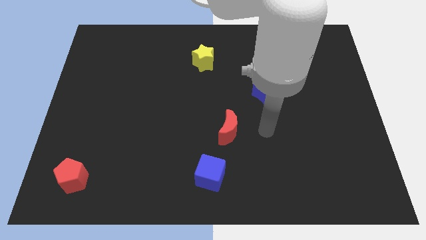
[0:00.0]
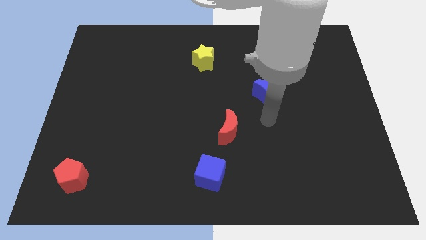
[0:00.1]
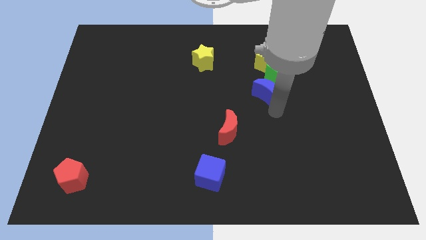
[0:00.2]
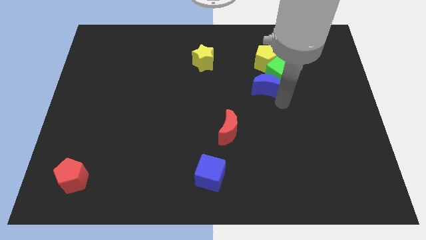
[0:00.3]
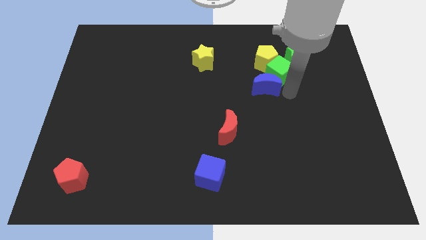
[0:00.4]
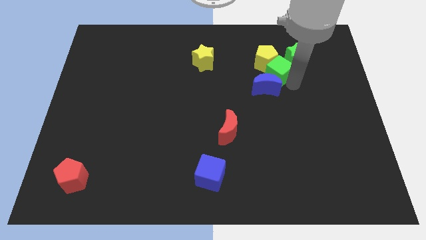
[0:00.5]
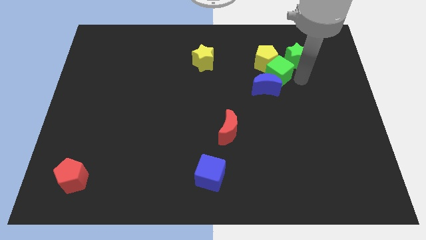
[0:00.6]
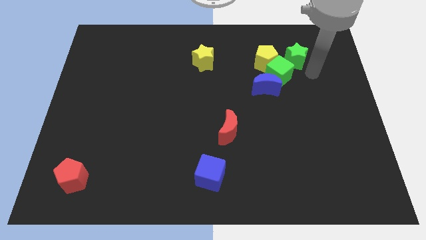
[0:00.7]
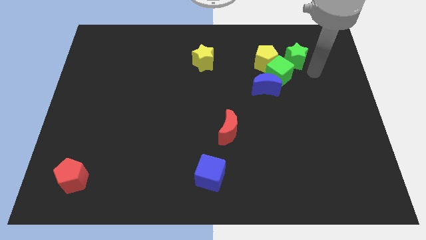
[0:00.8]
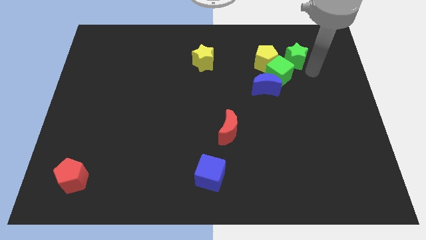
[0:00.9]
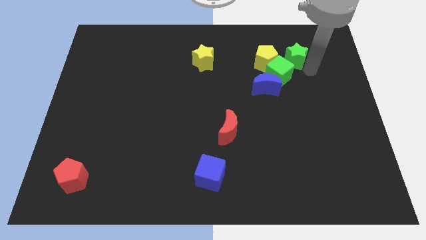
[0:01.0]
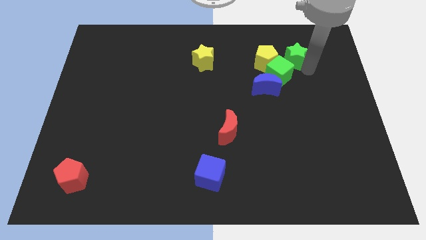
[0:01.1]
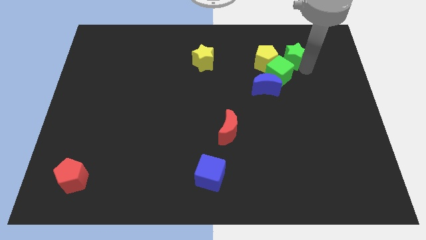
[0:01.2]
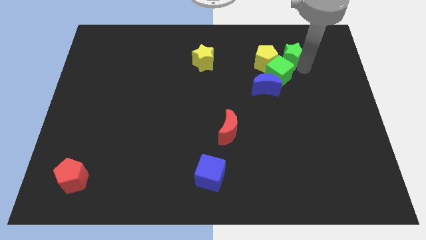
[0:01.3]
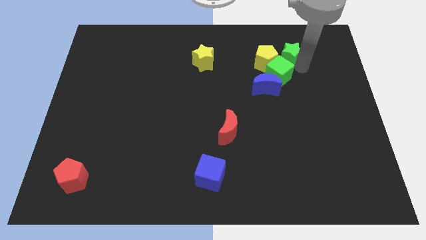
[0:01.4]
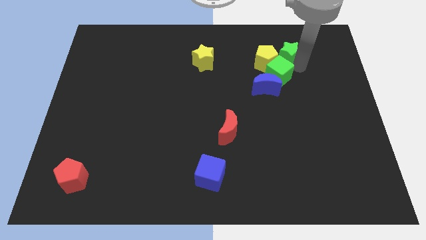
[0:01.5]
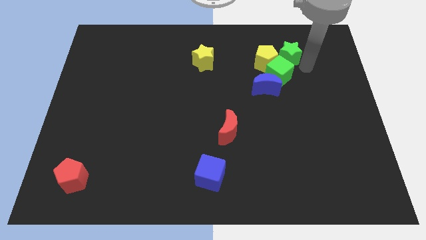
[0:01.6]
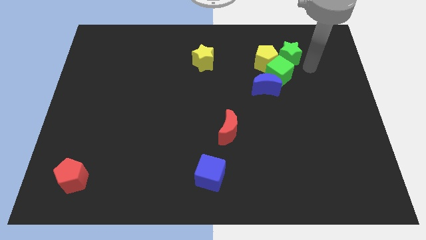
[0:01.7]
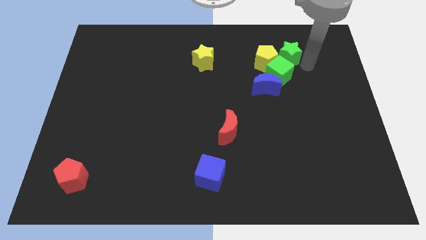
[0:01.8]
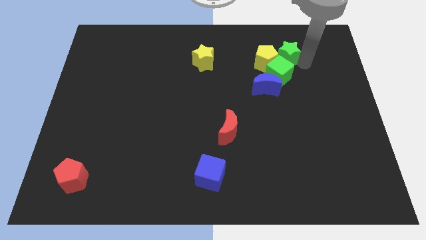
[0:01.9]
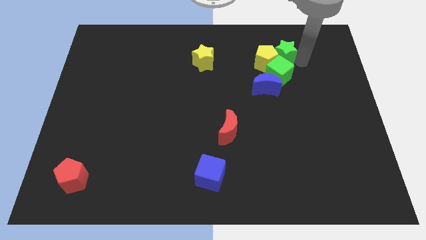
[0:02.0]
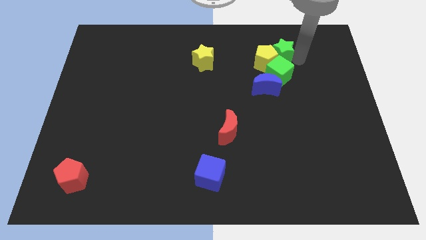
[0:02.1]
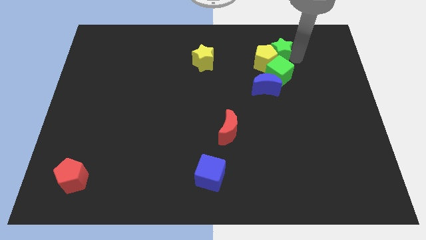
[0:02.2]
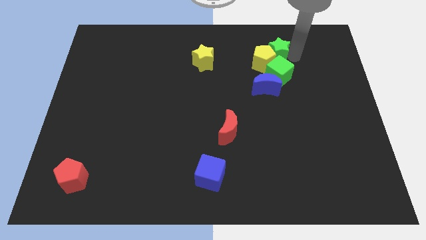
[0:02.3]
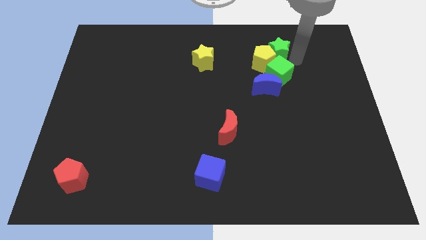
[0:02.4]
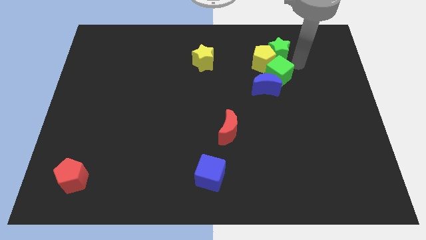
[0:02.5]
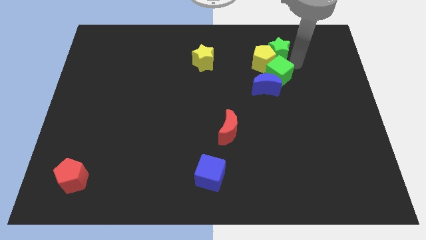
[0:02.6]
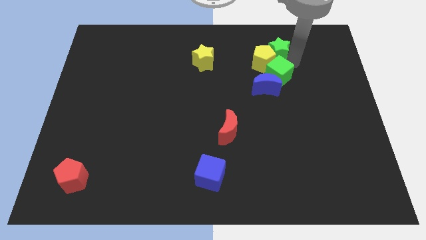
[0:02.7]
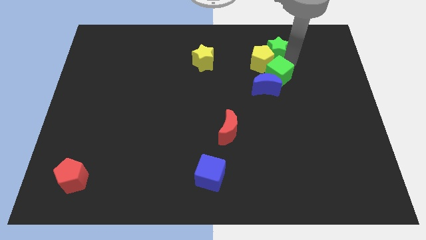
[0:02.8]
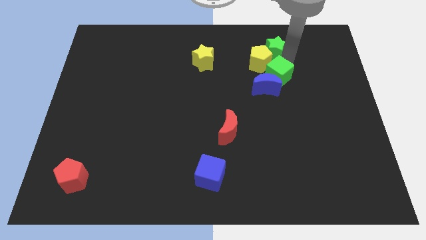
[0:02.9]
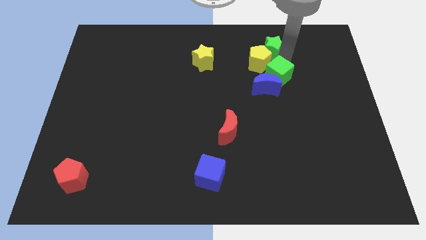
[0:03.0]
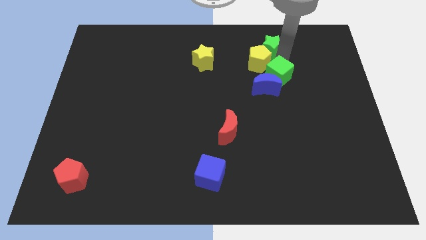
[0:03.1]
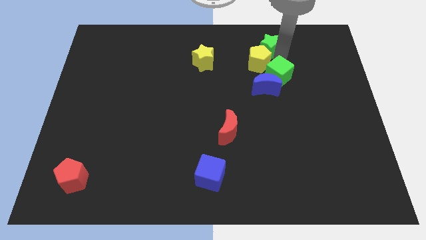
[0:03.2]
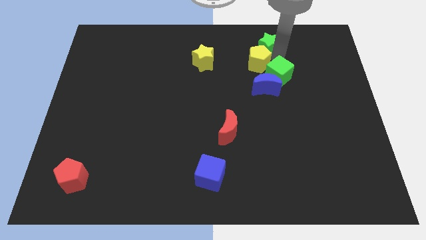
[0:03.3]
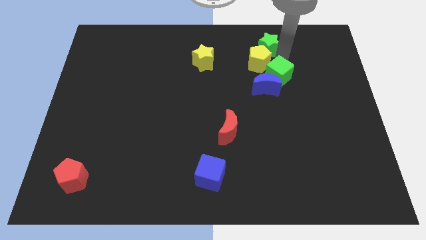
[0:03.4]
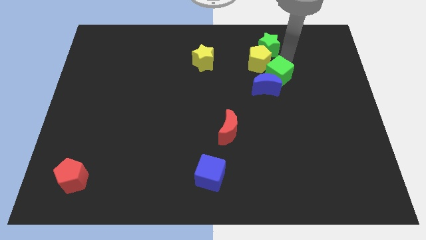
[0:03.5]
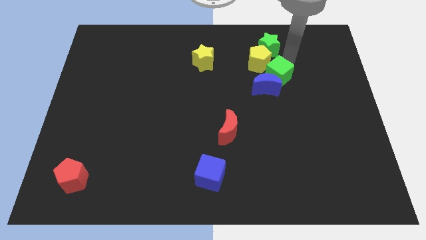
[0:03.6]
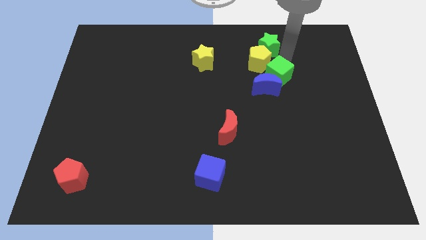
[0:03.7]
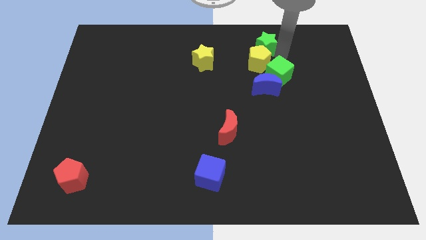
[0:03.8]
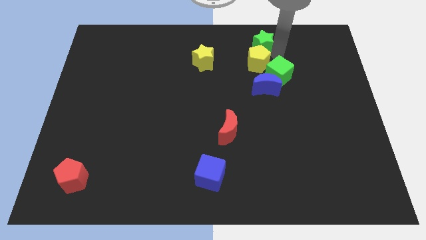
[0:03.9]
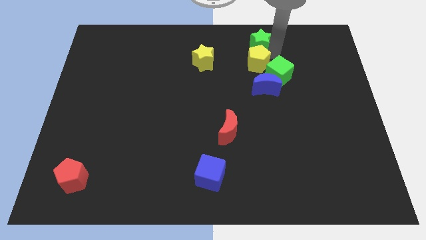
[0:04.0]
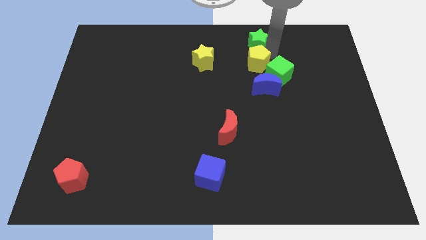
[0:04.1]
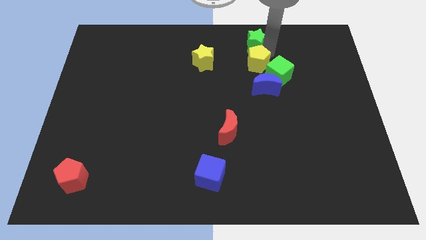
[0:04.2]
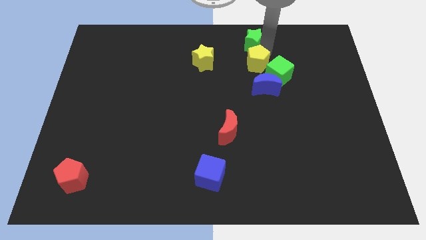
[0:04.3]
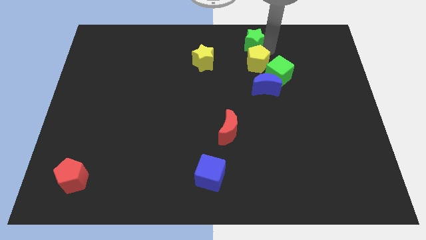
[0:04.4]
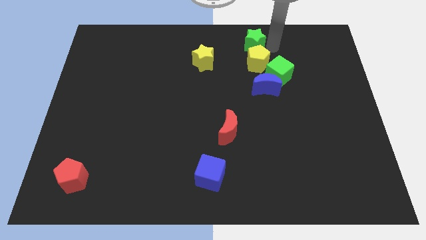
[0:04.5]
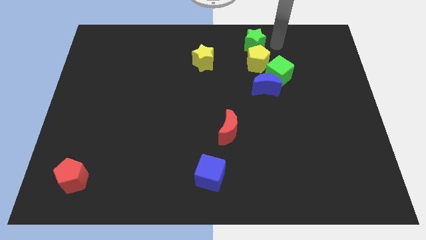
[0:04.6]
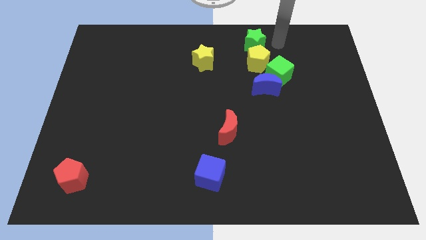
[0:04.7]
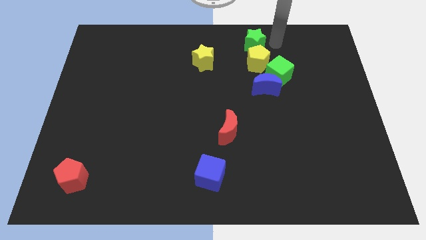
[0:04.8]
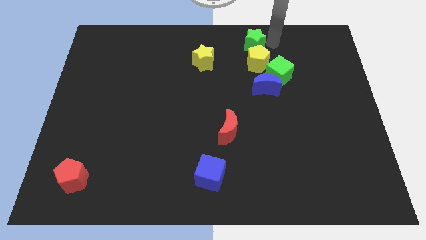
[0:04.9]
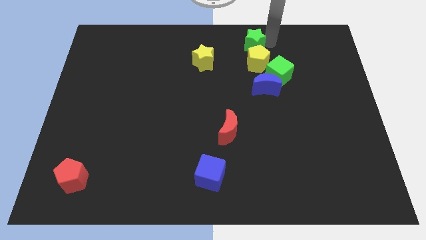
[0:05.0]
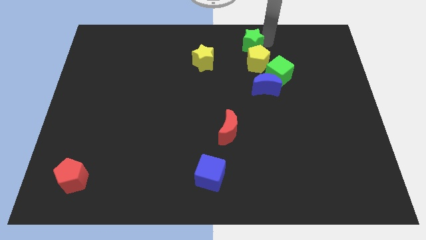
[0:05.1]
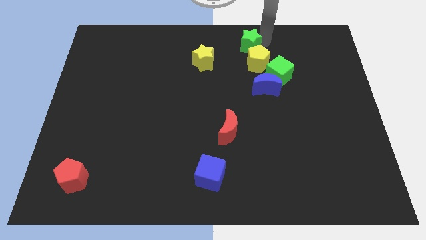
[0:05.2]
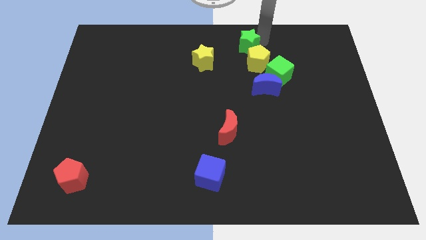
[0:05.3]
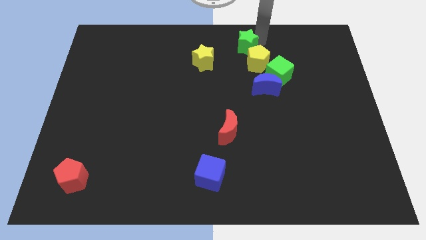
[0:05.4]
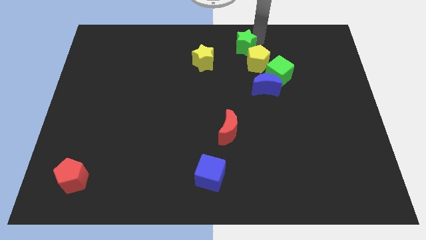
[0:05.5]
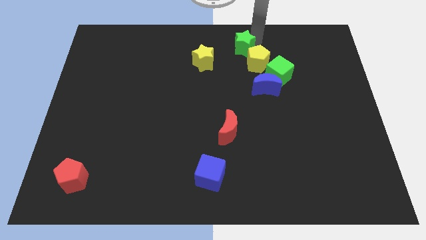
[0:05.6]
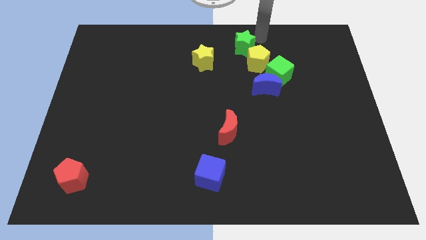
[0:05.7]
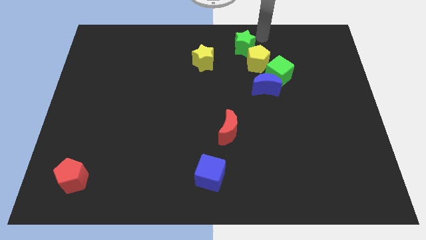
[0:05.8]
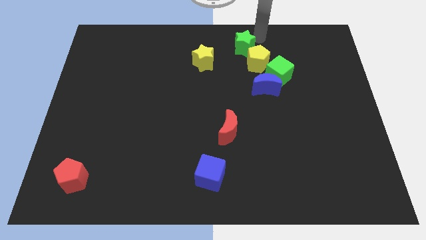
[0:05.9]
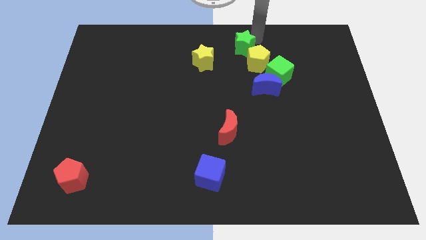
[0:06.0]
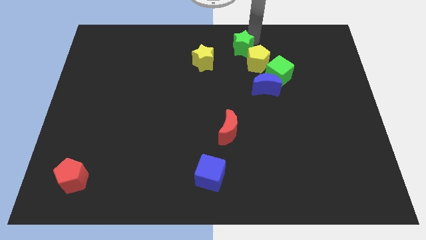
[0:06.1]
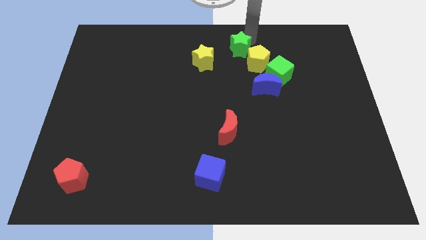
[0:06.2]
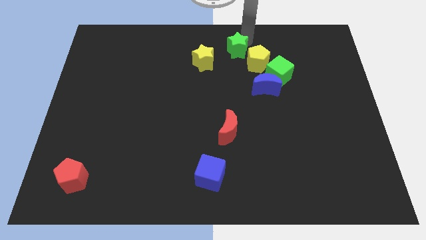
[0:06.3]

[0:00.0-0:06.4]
slide the green star to the left of the yellow pentagon

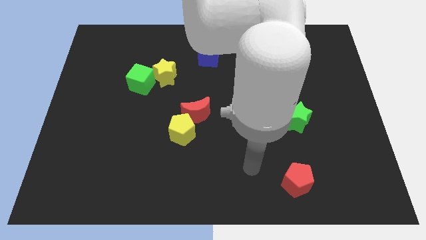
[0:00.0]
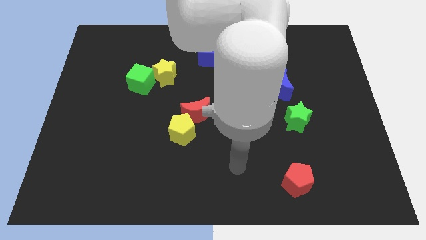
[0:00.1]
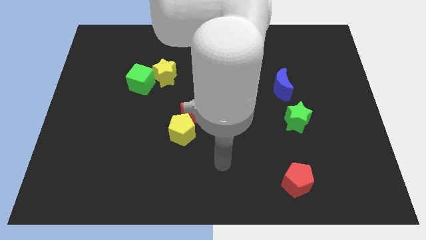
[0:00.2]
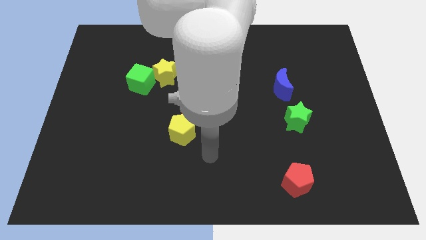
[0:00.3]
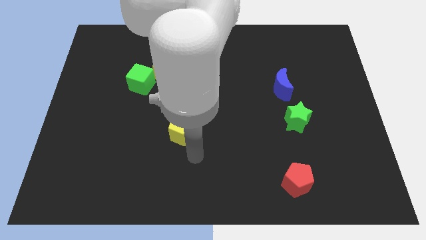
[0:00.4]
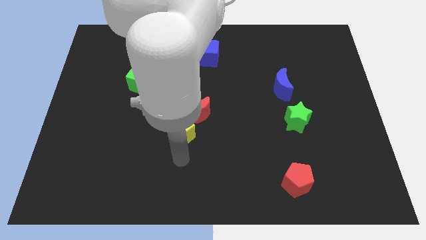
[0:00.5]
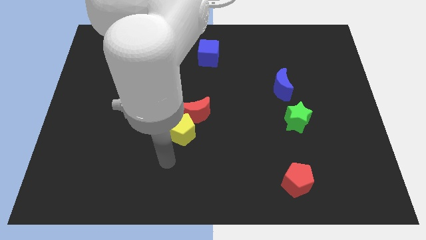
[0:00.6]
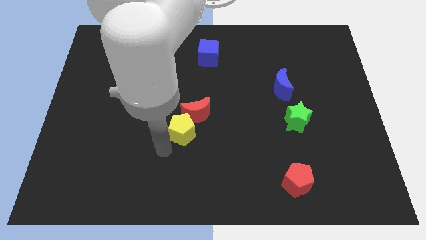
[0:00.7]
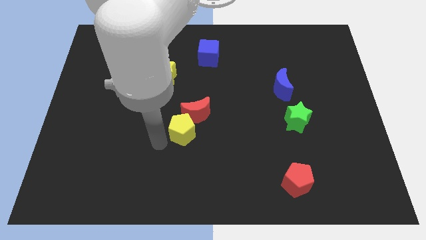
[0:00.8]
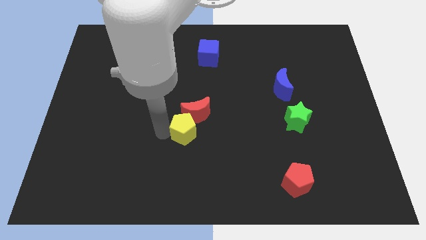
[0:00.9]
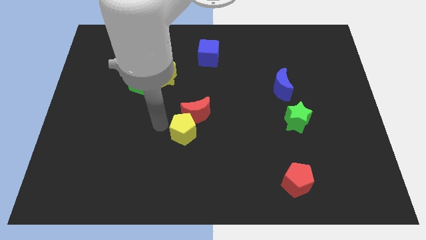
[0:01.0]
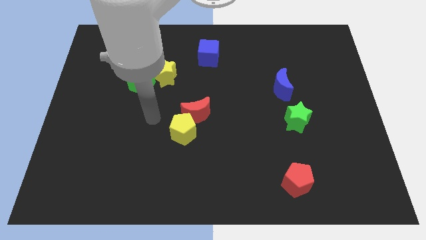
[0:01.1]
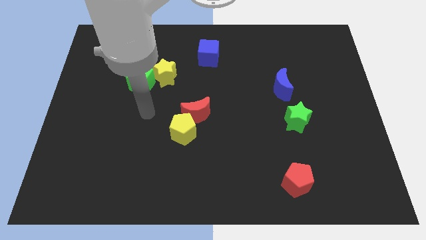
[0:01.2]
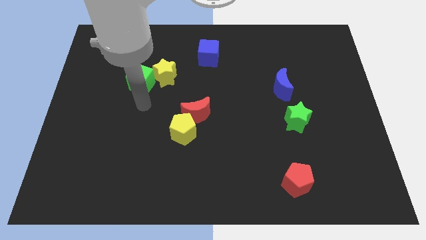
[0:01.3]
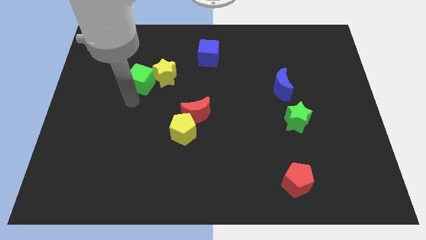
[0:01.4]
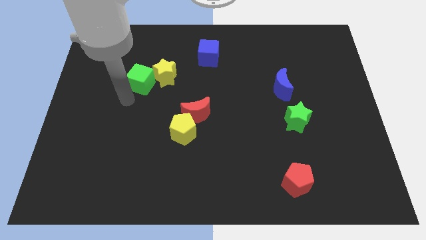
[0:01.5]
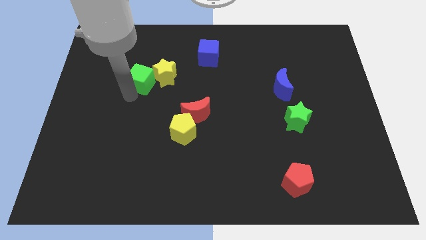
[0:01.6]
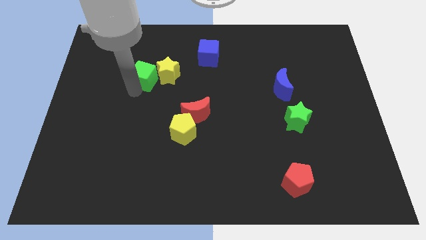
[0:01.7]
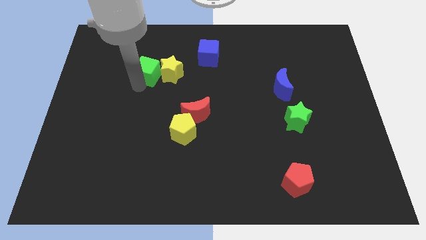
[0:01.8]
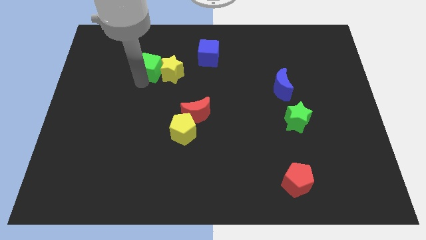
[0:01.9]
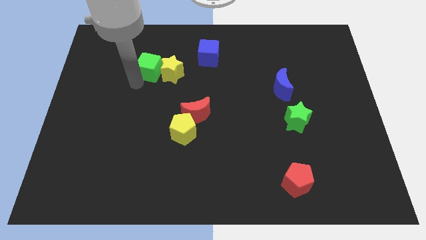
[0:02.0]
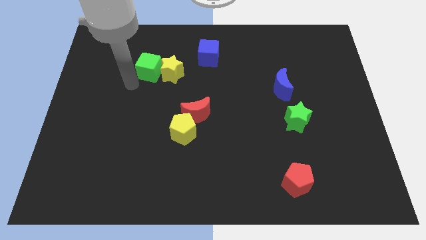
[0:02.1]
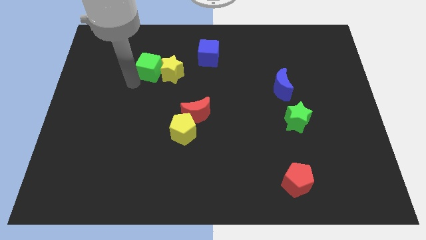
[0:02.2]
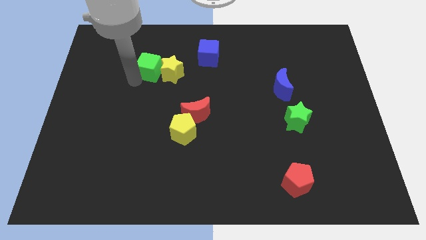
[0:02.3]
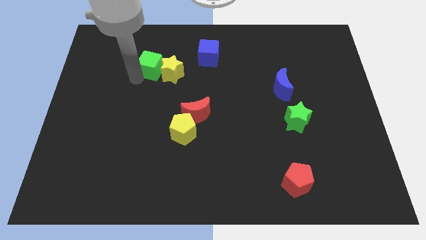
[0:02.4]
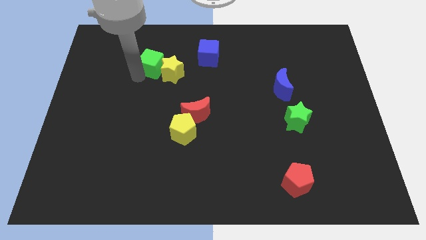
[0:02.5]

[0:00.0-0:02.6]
put the green cube left of the blue cube
